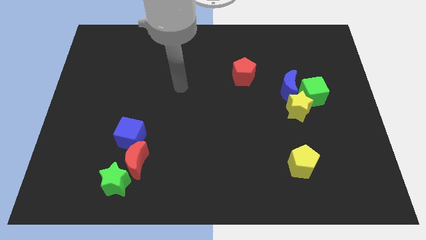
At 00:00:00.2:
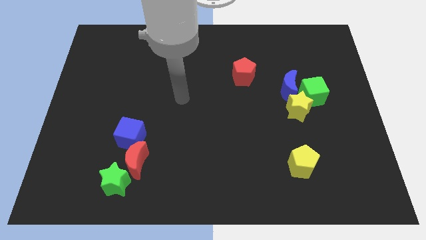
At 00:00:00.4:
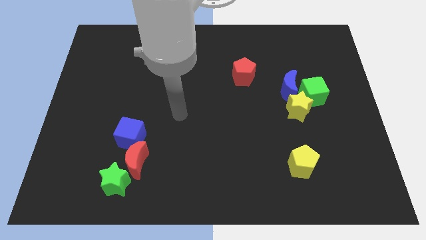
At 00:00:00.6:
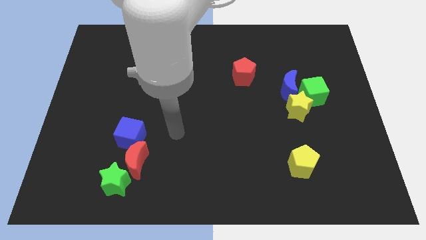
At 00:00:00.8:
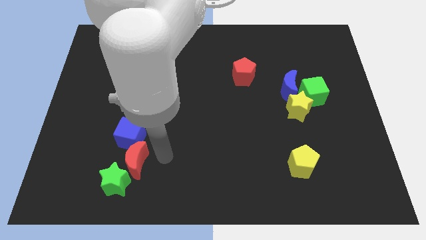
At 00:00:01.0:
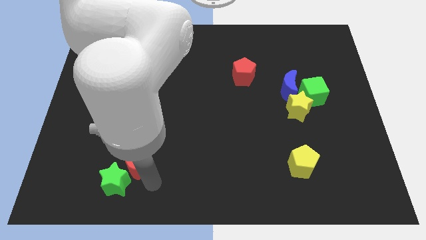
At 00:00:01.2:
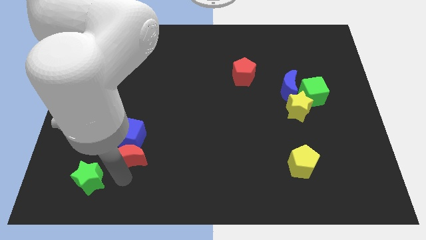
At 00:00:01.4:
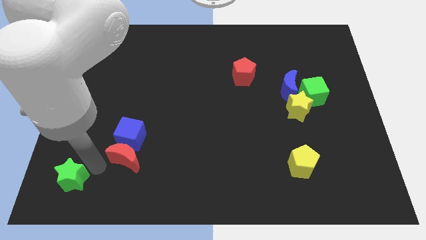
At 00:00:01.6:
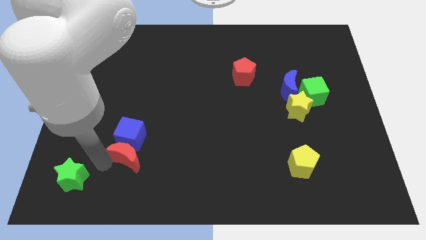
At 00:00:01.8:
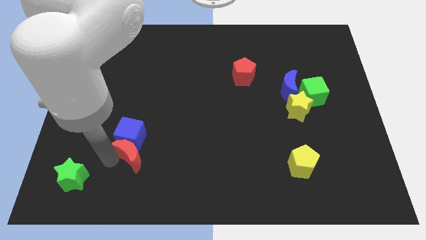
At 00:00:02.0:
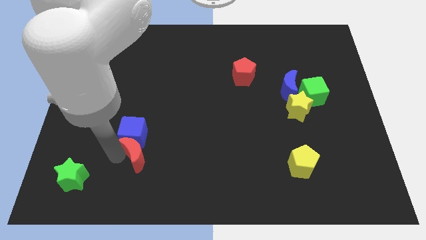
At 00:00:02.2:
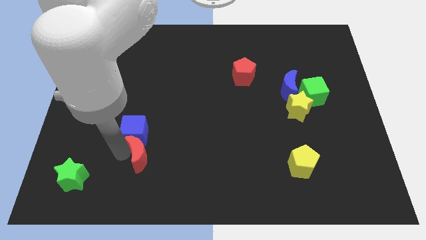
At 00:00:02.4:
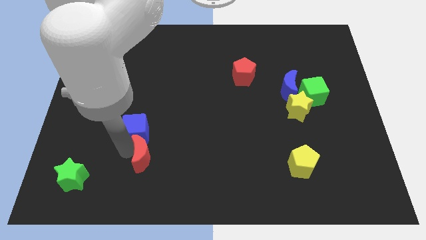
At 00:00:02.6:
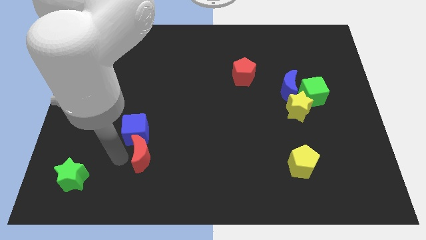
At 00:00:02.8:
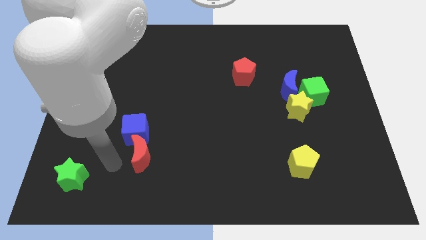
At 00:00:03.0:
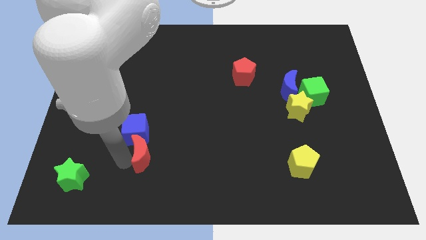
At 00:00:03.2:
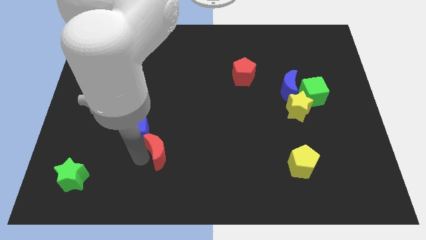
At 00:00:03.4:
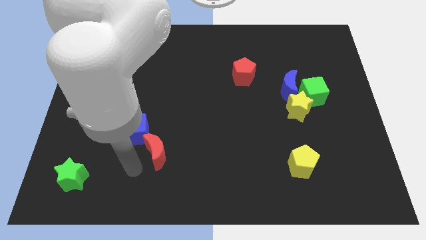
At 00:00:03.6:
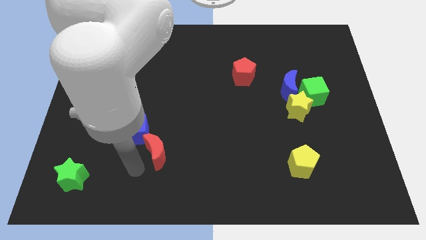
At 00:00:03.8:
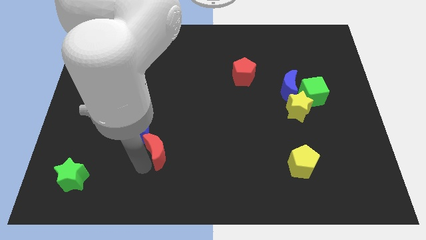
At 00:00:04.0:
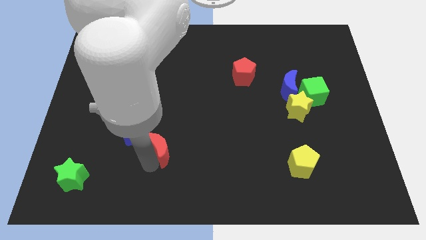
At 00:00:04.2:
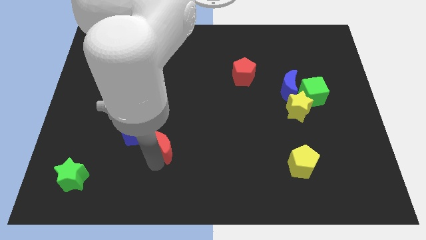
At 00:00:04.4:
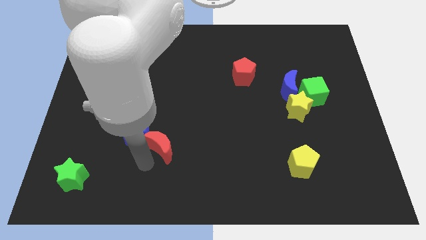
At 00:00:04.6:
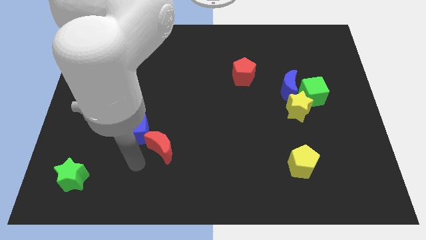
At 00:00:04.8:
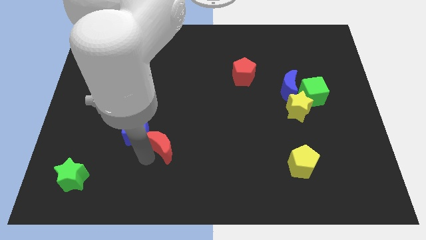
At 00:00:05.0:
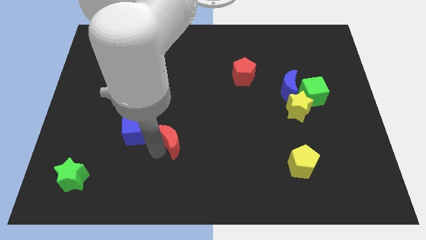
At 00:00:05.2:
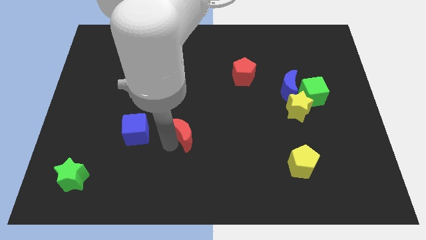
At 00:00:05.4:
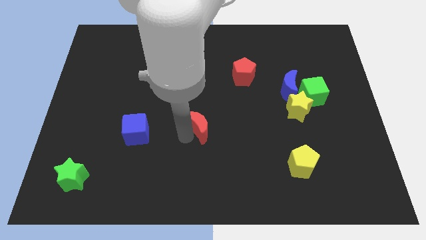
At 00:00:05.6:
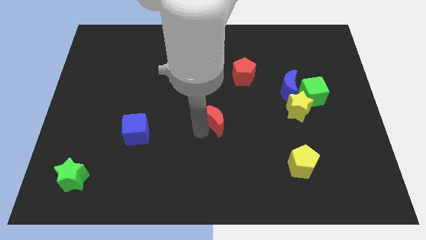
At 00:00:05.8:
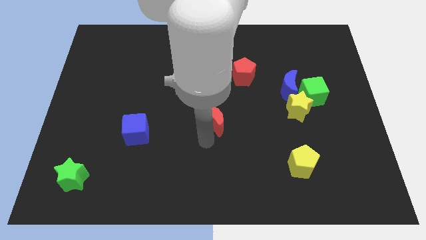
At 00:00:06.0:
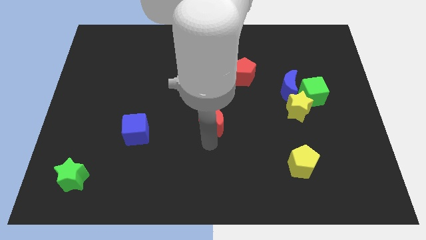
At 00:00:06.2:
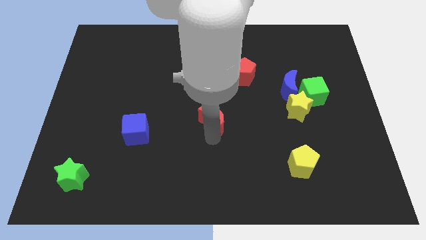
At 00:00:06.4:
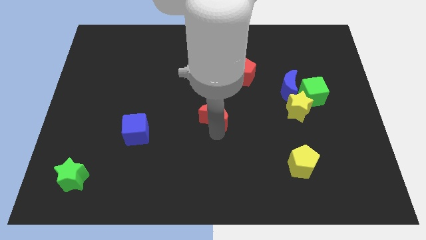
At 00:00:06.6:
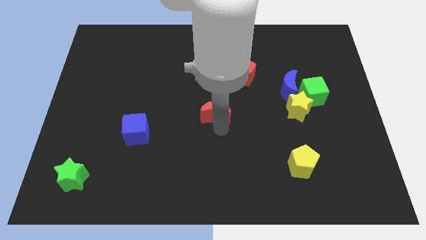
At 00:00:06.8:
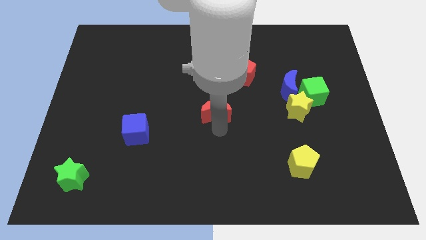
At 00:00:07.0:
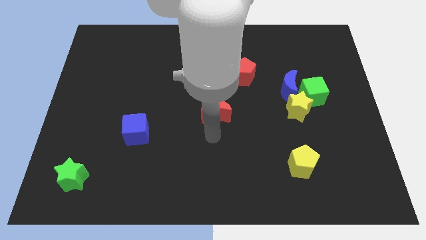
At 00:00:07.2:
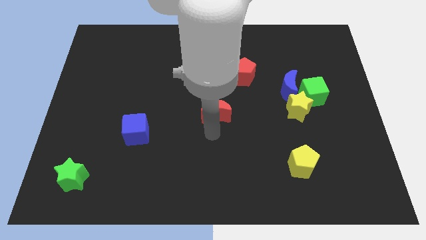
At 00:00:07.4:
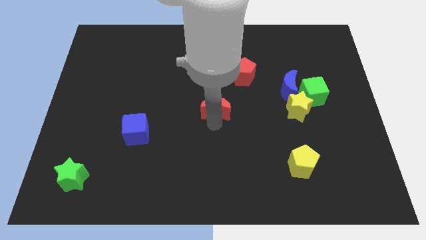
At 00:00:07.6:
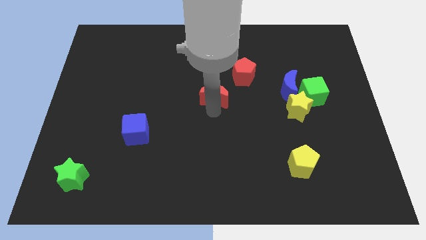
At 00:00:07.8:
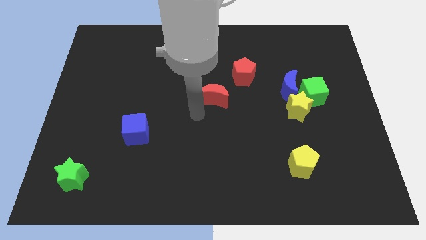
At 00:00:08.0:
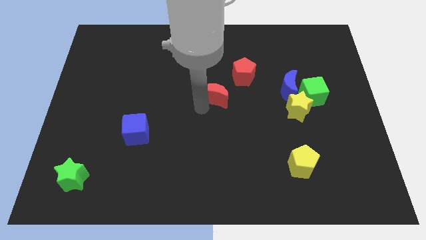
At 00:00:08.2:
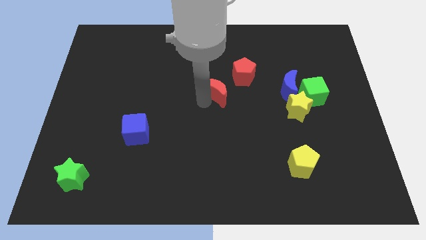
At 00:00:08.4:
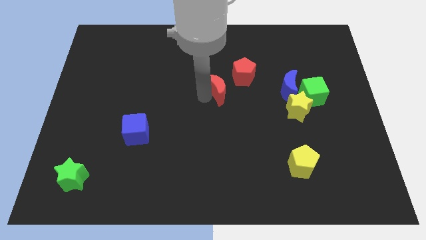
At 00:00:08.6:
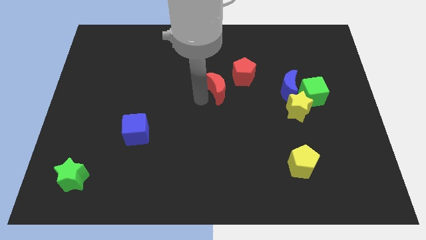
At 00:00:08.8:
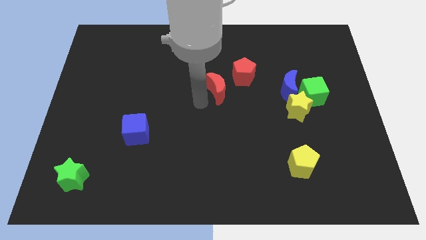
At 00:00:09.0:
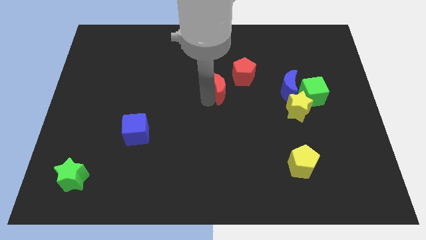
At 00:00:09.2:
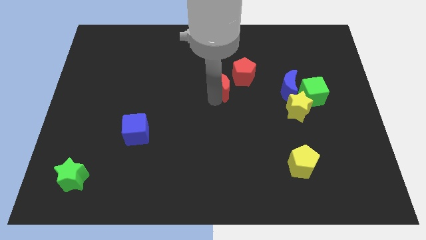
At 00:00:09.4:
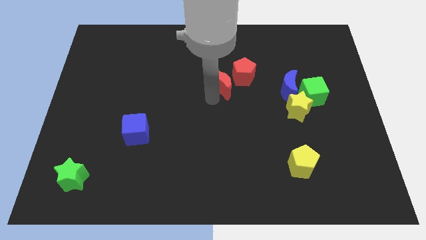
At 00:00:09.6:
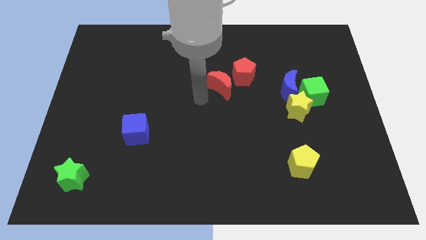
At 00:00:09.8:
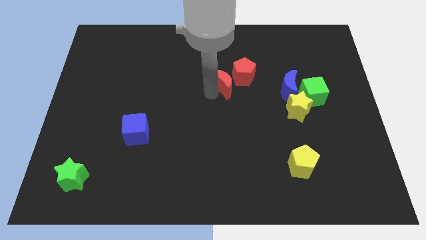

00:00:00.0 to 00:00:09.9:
push the red moon next to the red pentagon
